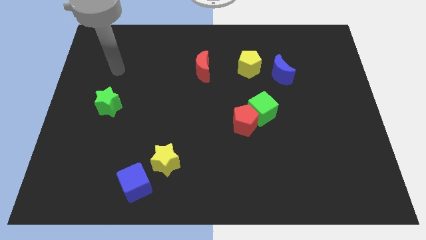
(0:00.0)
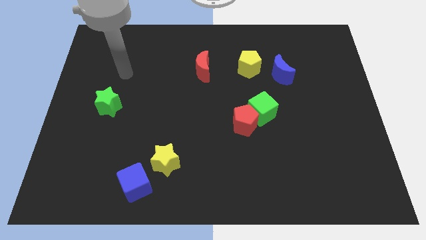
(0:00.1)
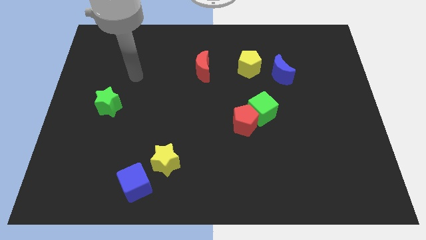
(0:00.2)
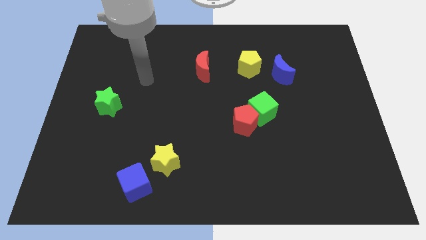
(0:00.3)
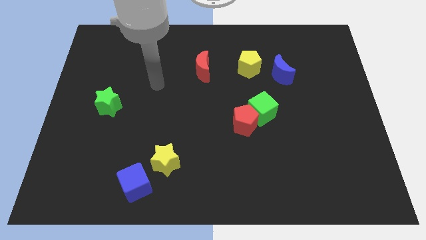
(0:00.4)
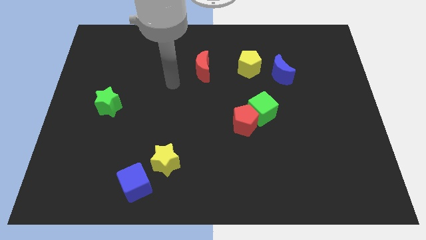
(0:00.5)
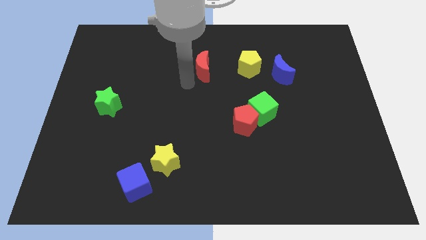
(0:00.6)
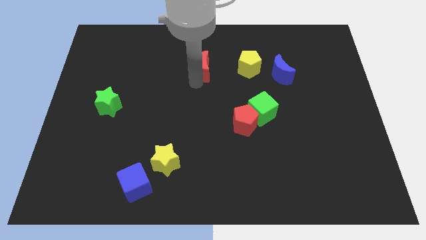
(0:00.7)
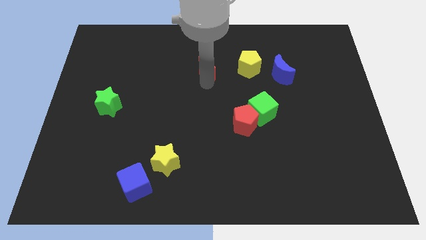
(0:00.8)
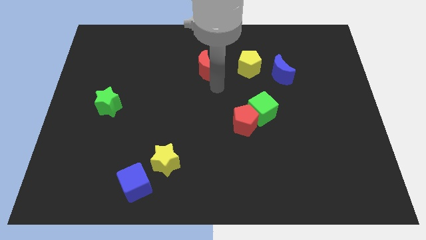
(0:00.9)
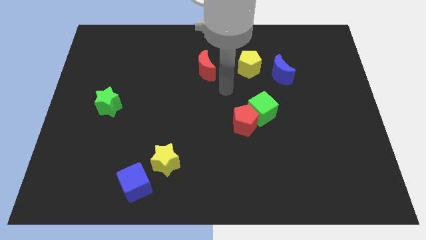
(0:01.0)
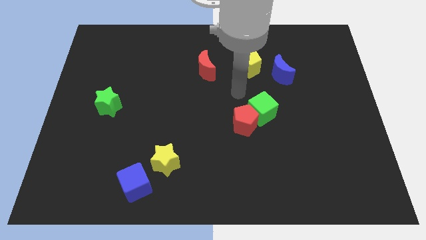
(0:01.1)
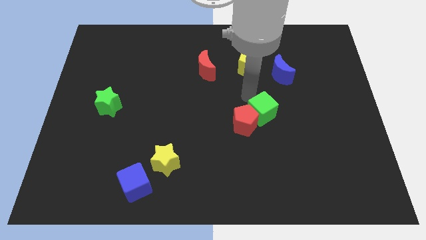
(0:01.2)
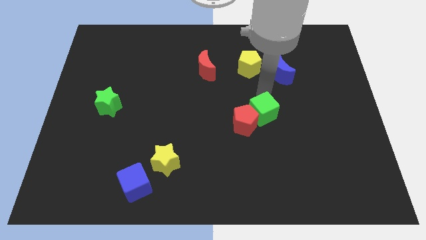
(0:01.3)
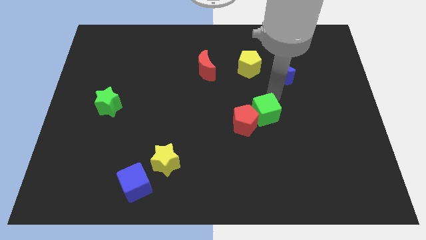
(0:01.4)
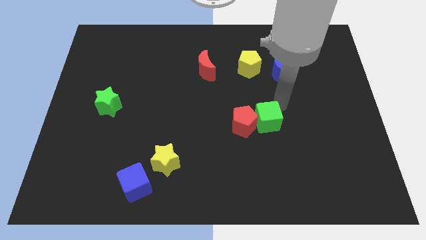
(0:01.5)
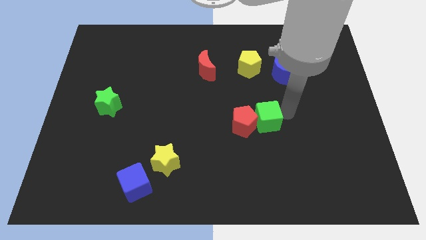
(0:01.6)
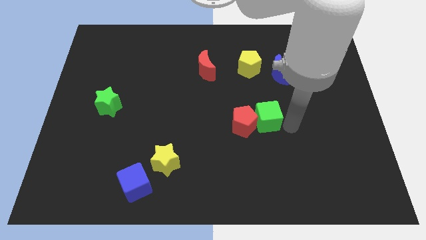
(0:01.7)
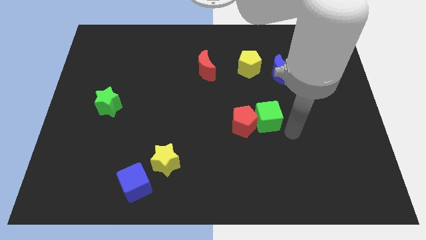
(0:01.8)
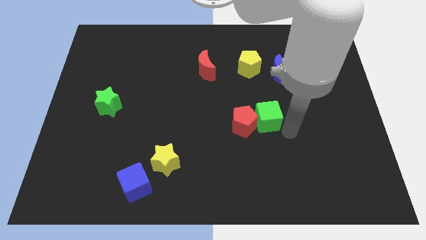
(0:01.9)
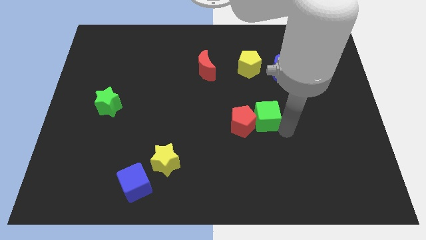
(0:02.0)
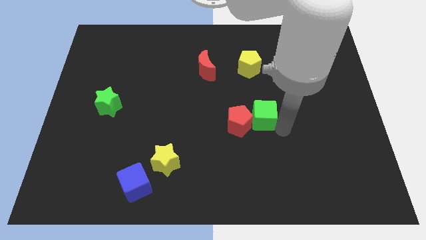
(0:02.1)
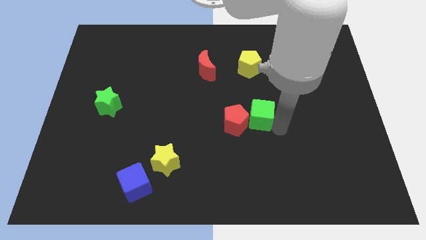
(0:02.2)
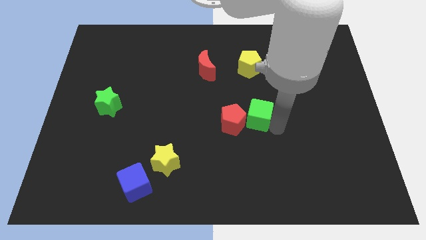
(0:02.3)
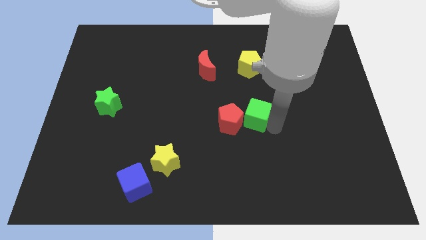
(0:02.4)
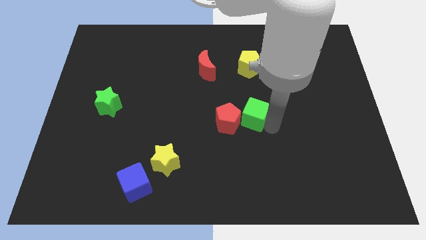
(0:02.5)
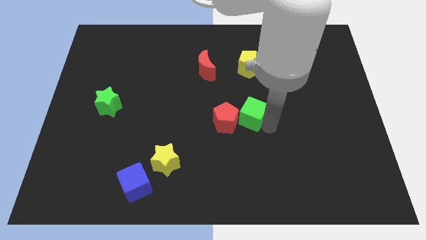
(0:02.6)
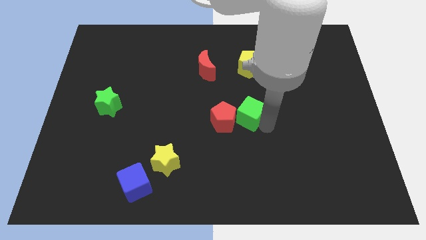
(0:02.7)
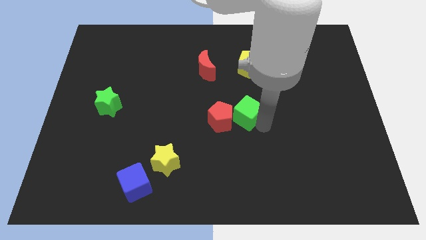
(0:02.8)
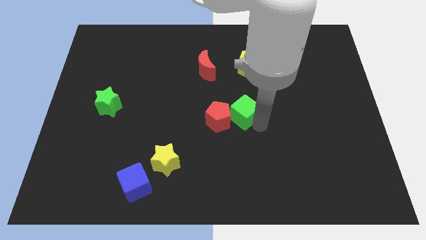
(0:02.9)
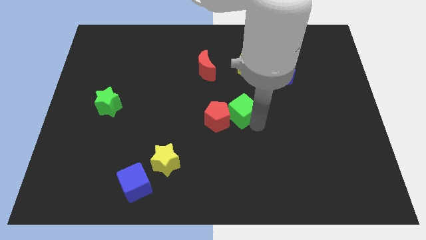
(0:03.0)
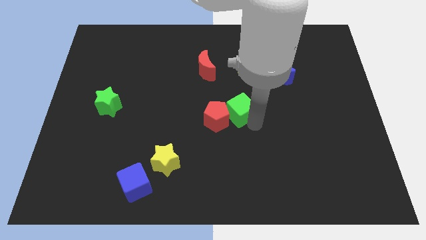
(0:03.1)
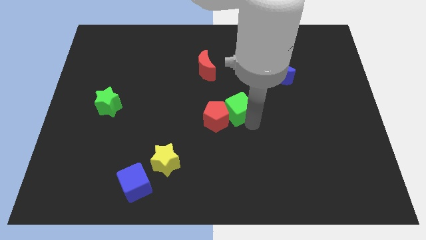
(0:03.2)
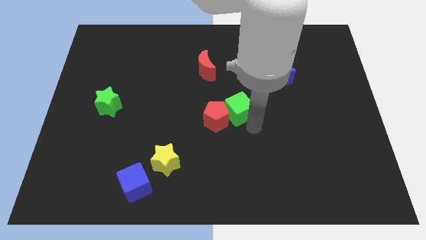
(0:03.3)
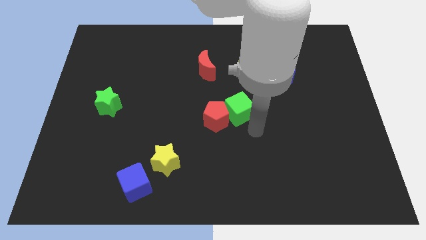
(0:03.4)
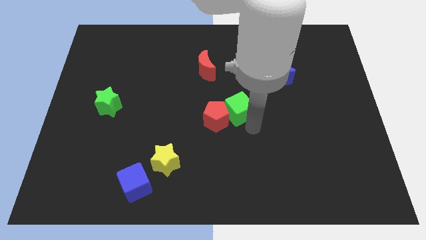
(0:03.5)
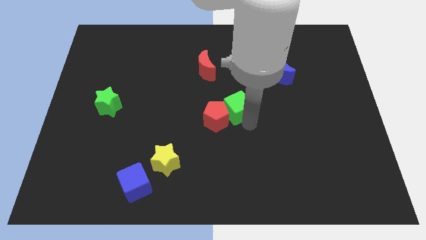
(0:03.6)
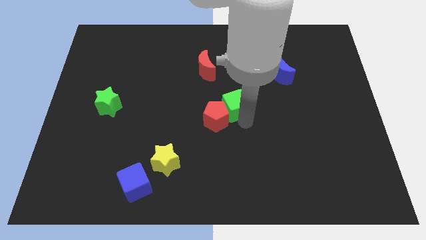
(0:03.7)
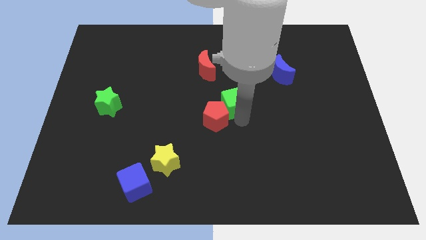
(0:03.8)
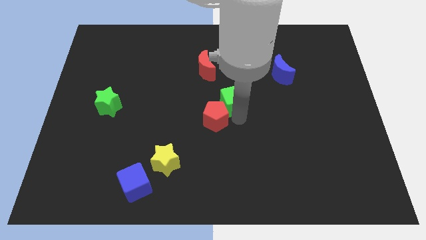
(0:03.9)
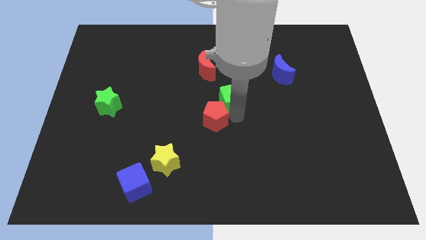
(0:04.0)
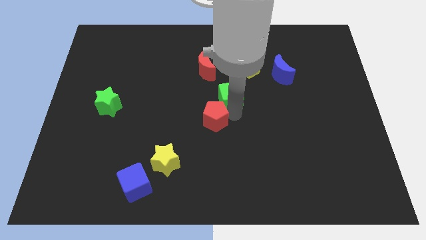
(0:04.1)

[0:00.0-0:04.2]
move the green cube left slightly

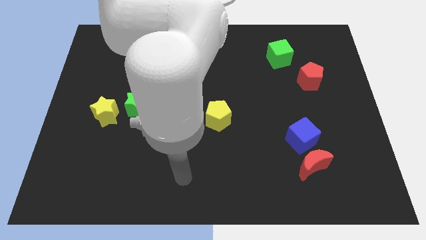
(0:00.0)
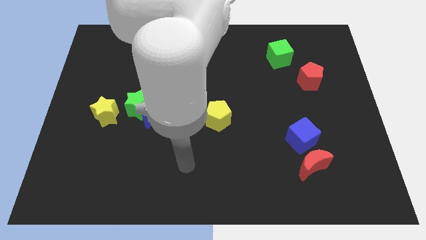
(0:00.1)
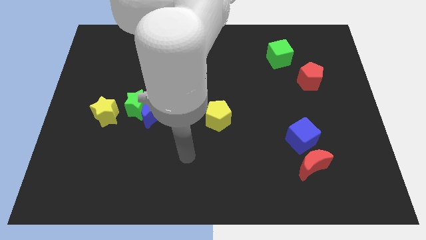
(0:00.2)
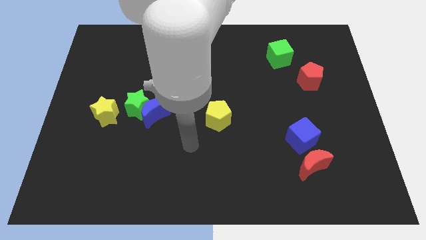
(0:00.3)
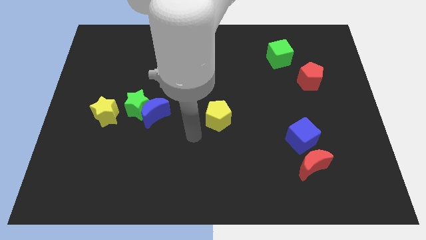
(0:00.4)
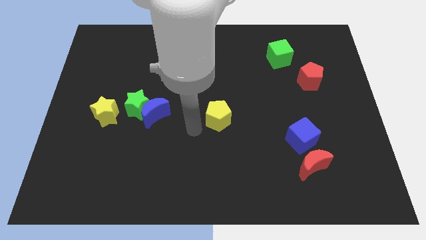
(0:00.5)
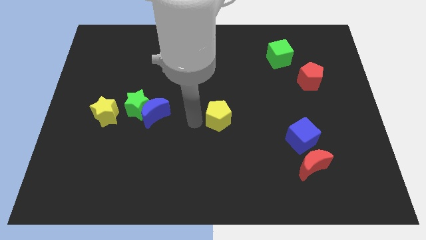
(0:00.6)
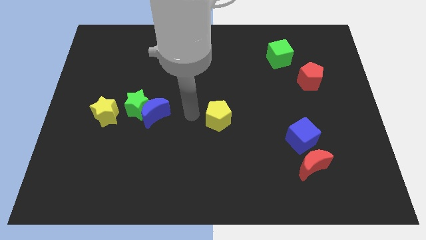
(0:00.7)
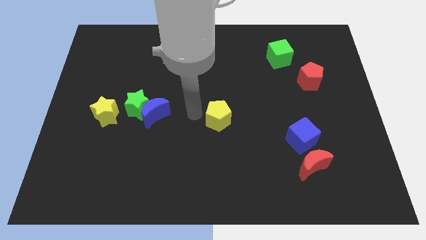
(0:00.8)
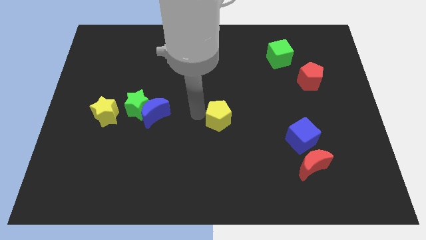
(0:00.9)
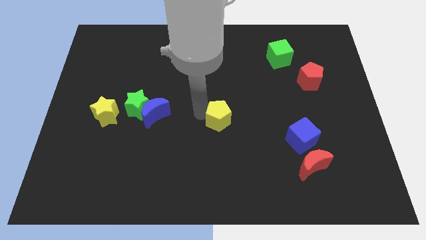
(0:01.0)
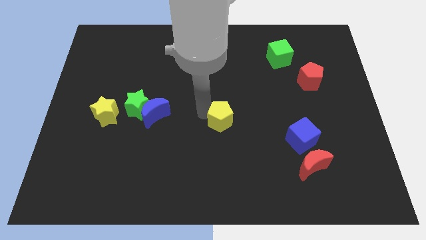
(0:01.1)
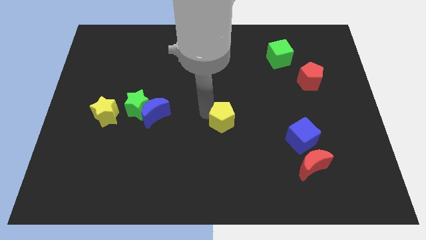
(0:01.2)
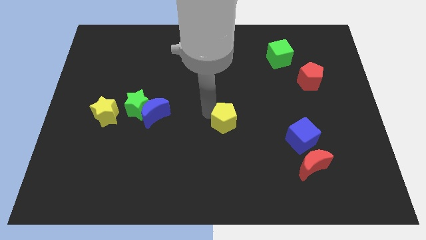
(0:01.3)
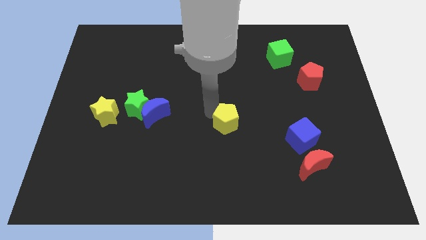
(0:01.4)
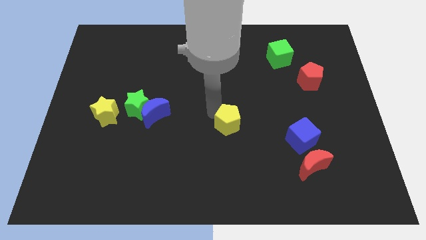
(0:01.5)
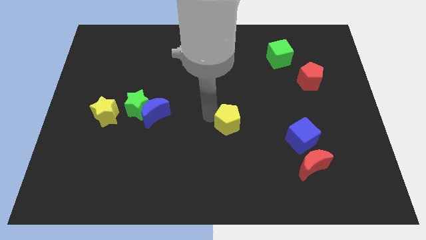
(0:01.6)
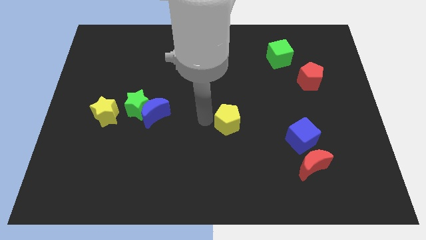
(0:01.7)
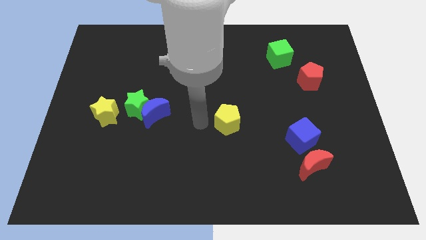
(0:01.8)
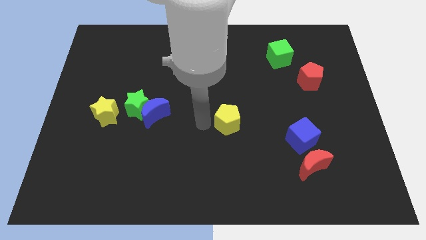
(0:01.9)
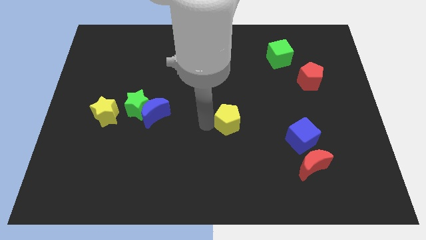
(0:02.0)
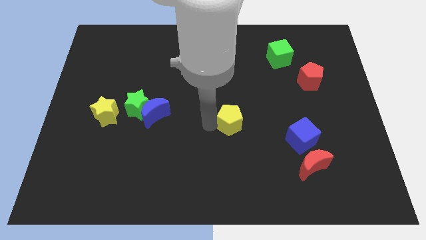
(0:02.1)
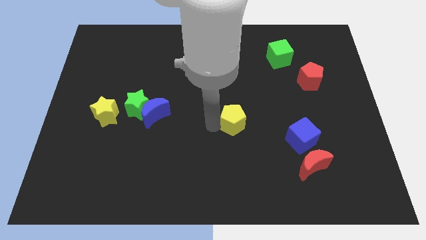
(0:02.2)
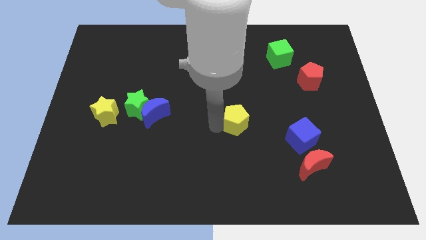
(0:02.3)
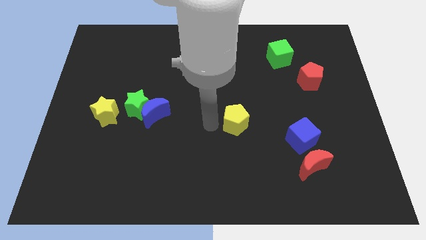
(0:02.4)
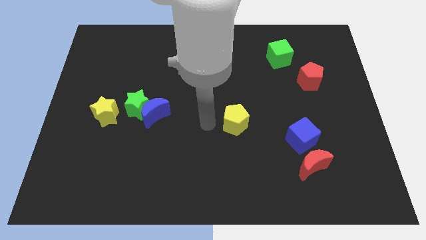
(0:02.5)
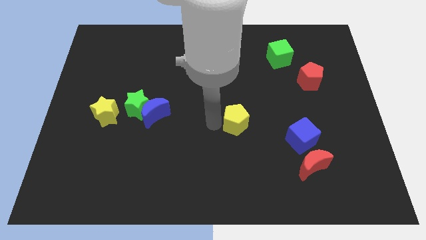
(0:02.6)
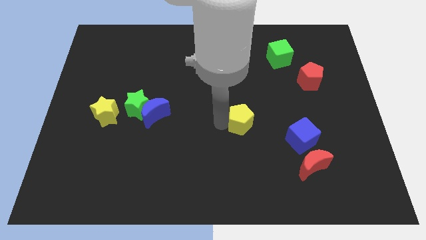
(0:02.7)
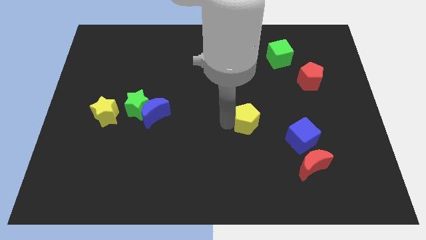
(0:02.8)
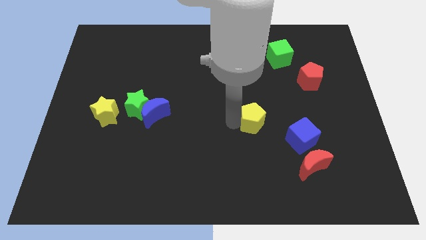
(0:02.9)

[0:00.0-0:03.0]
slide the yellow pentagon somewhat to the right

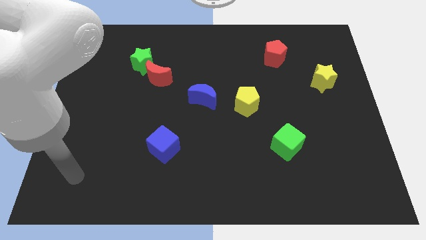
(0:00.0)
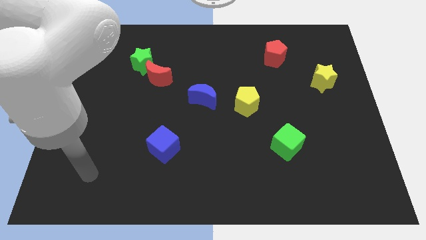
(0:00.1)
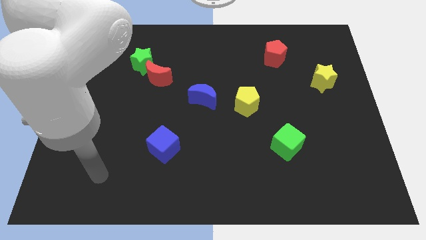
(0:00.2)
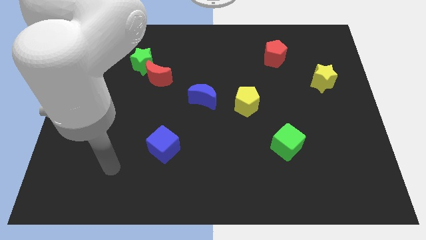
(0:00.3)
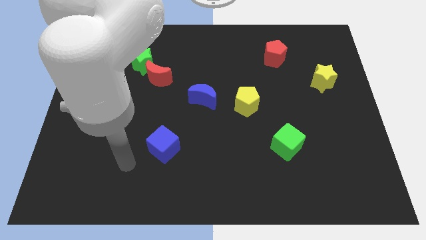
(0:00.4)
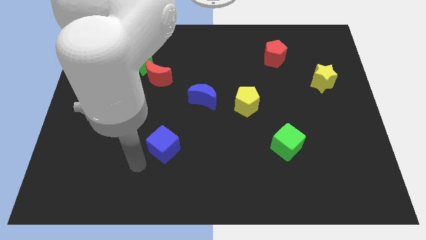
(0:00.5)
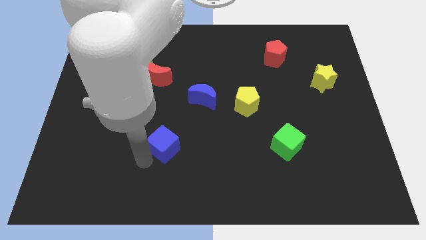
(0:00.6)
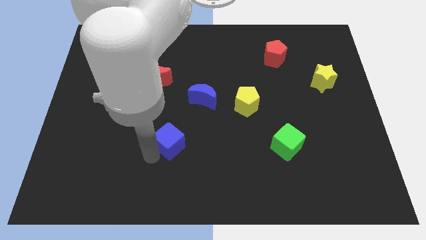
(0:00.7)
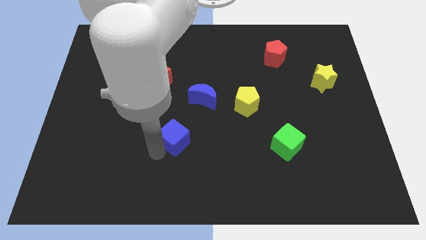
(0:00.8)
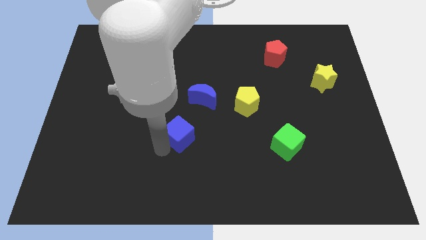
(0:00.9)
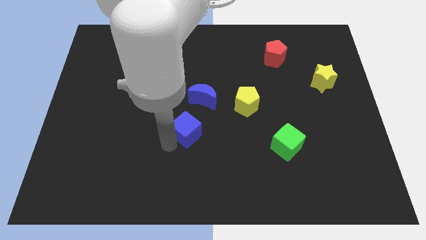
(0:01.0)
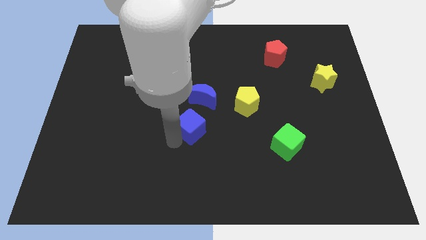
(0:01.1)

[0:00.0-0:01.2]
slide the blue cube somewhat upwards and to the right diagonally
